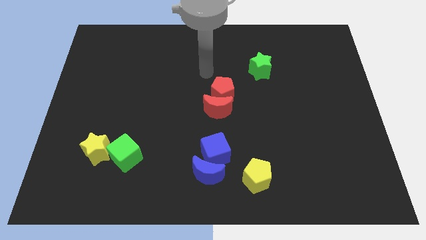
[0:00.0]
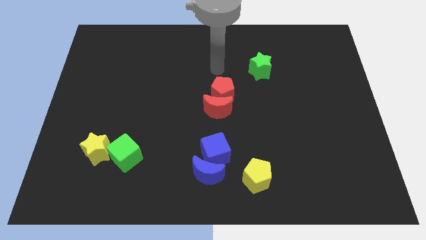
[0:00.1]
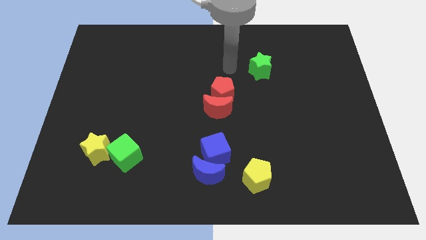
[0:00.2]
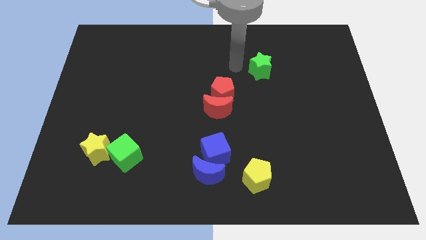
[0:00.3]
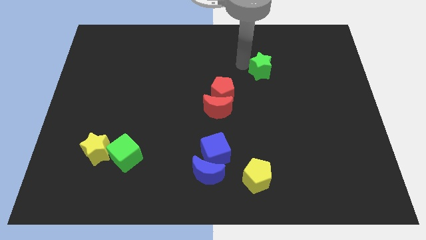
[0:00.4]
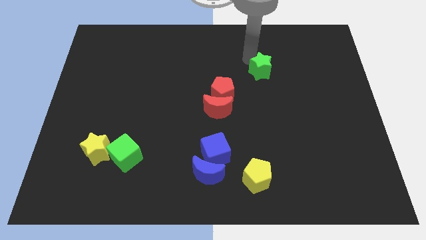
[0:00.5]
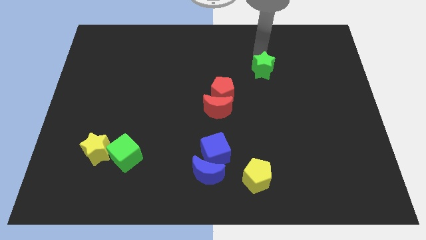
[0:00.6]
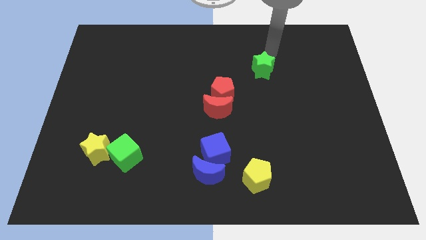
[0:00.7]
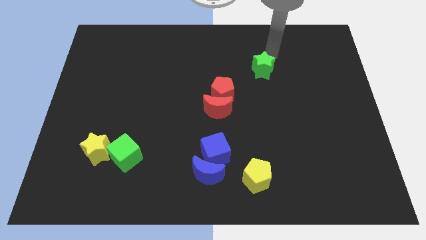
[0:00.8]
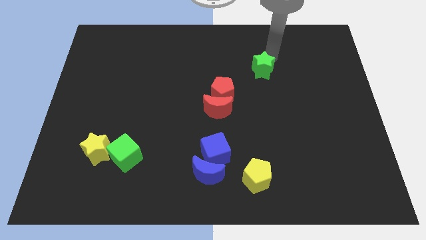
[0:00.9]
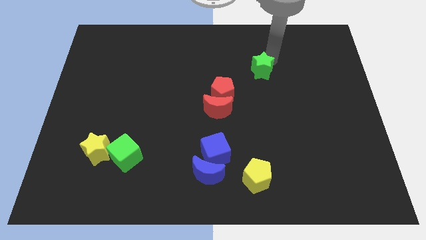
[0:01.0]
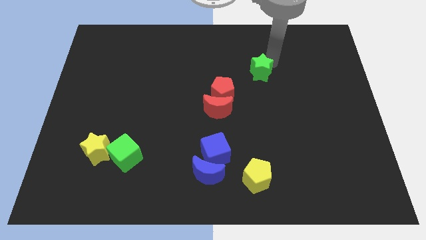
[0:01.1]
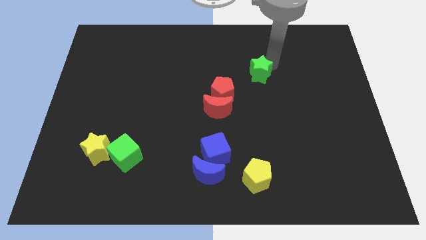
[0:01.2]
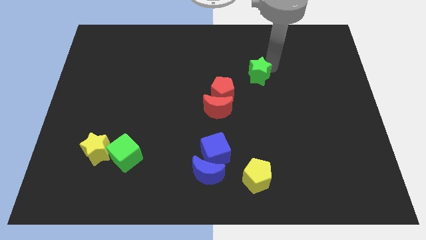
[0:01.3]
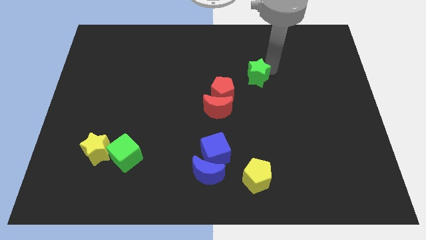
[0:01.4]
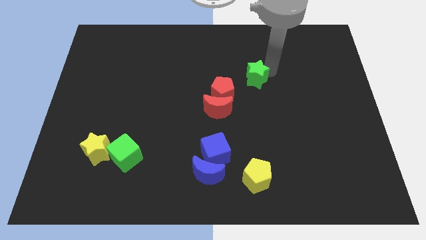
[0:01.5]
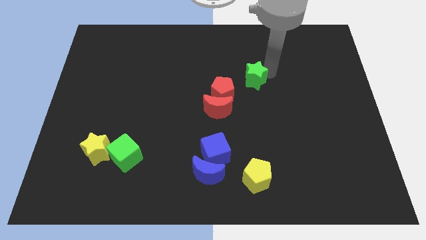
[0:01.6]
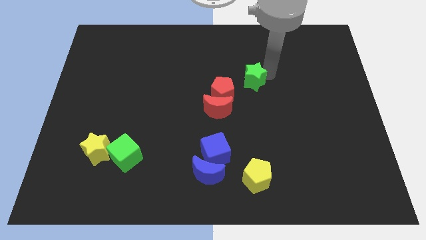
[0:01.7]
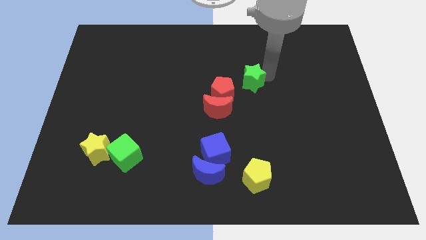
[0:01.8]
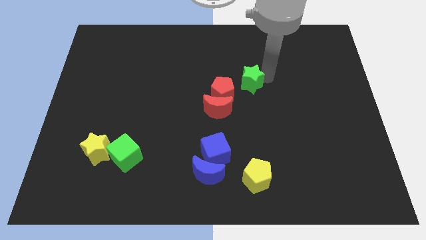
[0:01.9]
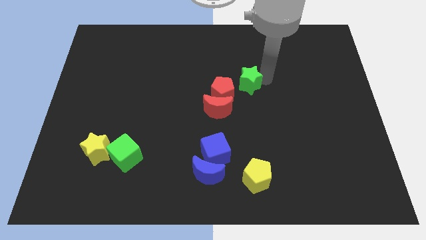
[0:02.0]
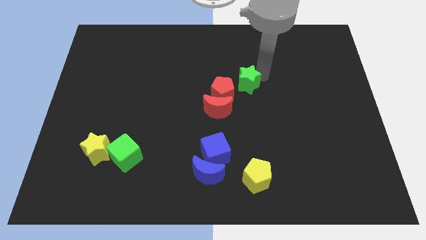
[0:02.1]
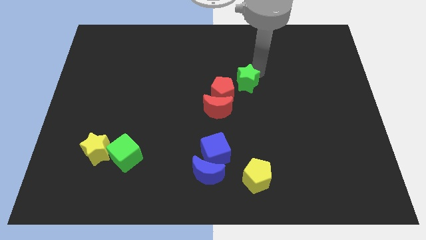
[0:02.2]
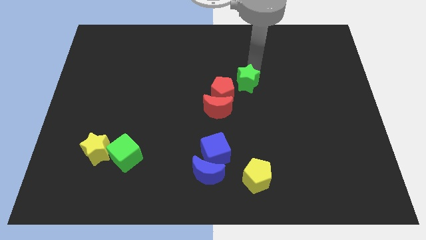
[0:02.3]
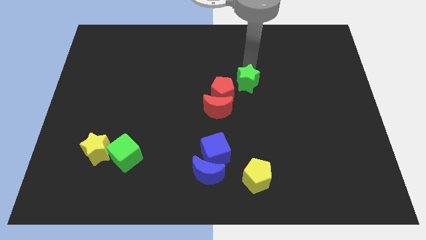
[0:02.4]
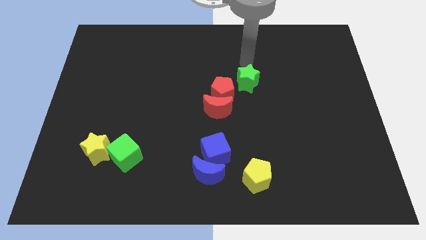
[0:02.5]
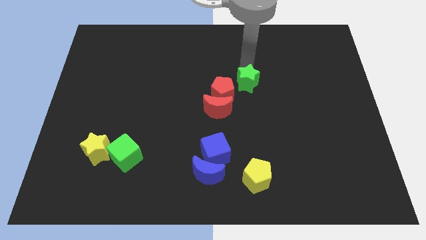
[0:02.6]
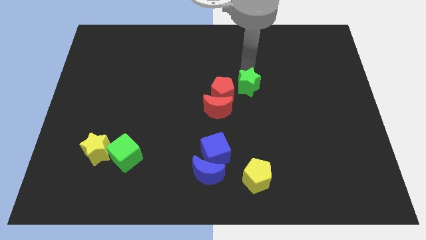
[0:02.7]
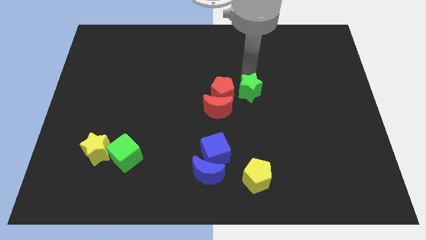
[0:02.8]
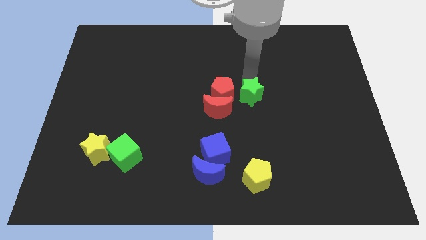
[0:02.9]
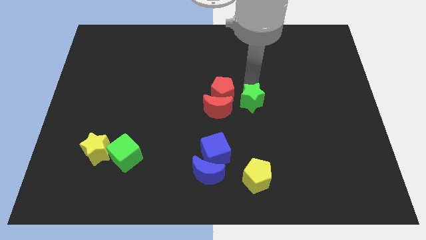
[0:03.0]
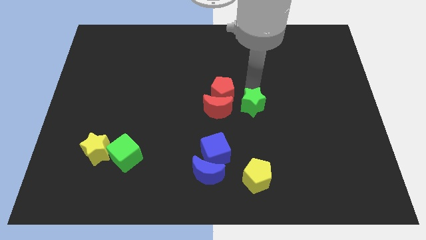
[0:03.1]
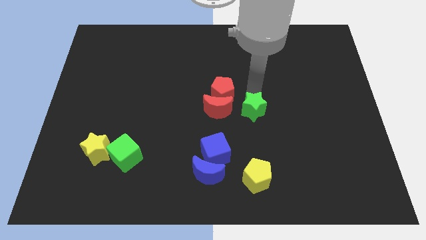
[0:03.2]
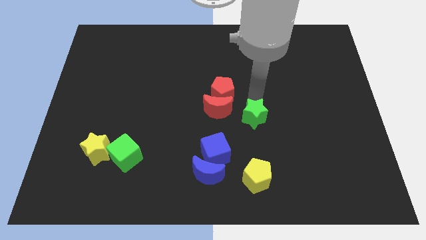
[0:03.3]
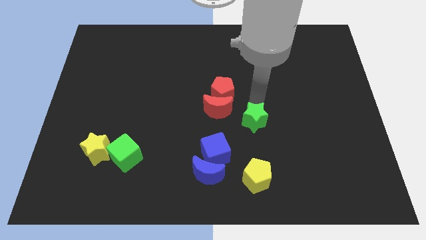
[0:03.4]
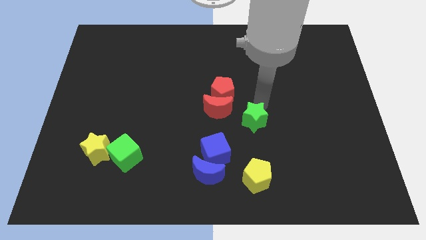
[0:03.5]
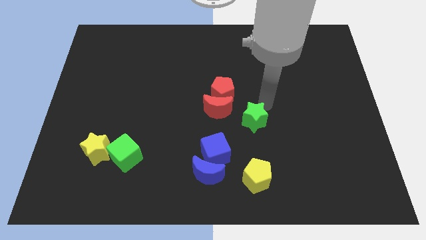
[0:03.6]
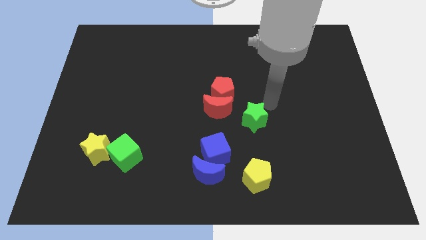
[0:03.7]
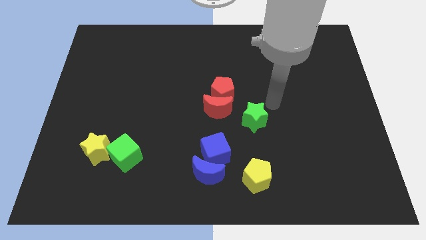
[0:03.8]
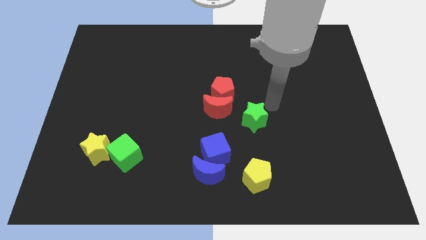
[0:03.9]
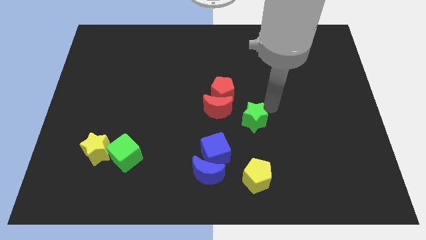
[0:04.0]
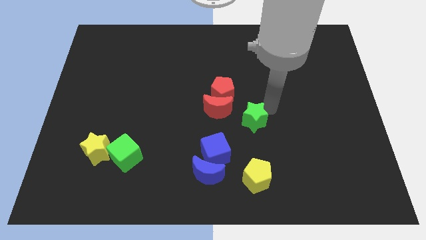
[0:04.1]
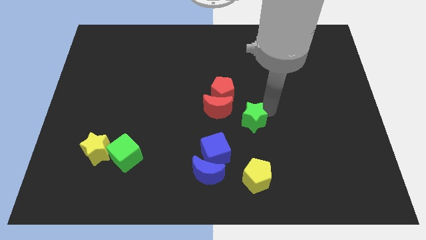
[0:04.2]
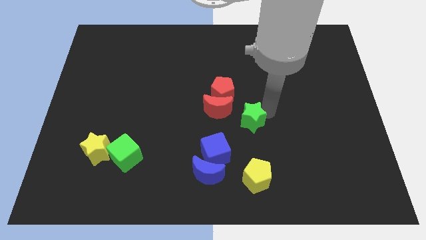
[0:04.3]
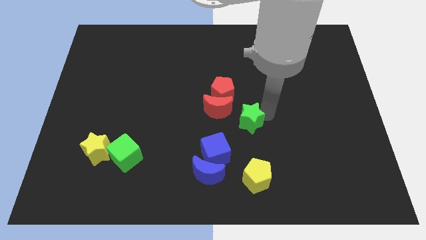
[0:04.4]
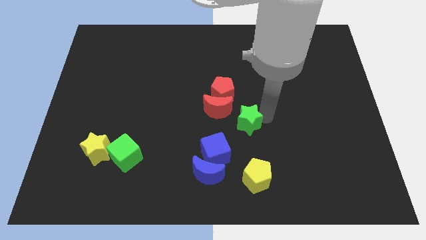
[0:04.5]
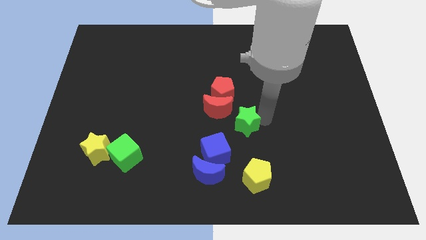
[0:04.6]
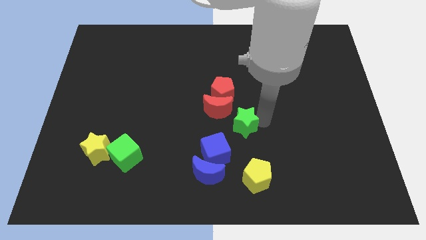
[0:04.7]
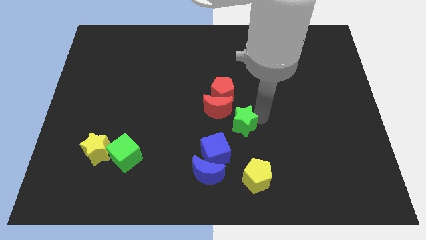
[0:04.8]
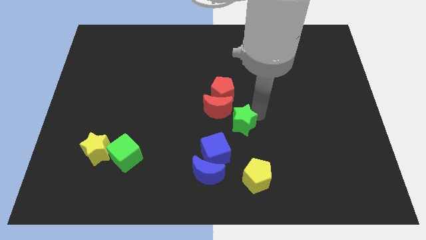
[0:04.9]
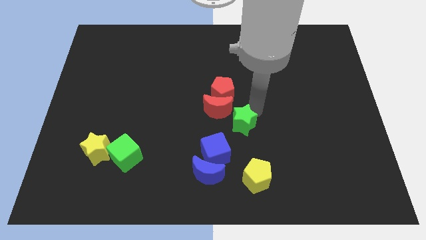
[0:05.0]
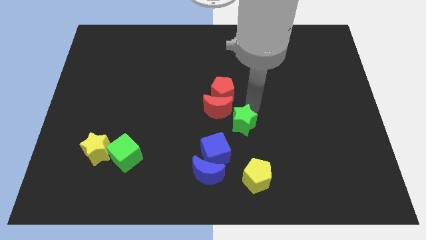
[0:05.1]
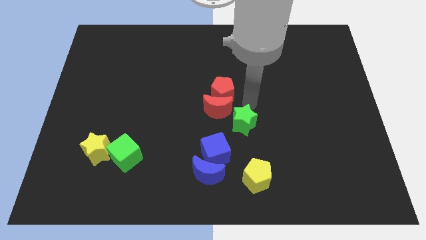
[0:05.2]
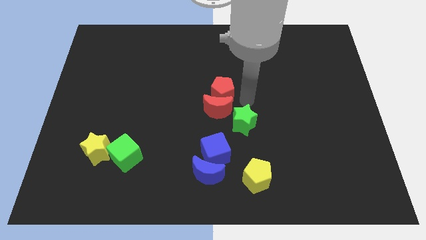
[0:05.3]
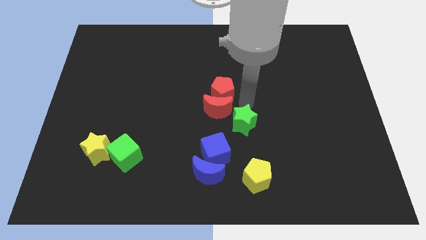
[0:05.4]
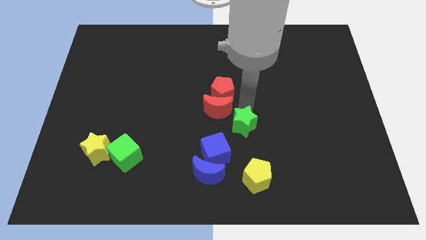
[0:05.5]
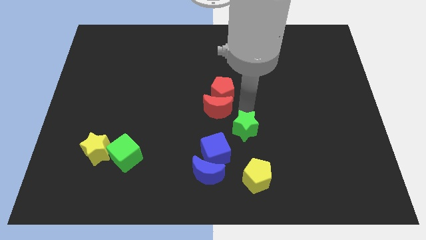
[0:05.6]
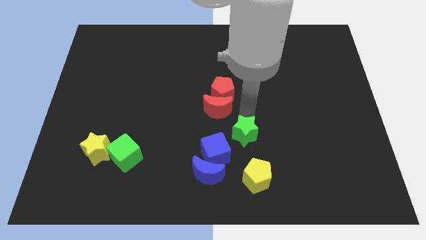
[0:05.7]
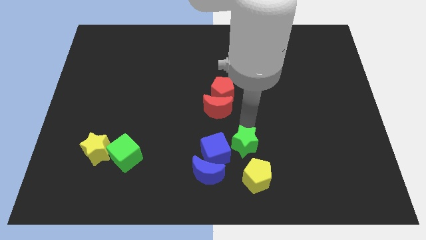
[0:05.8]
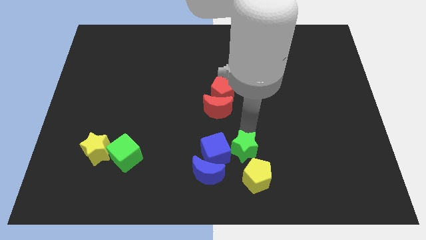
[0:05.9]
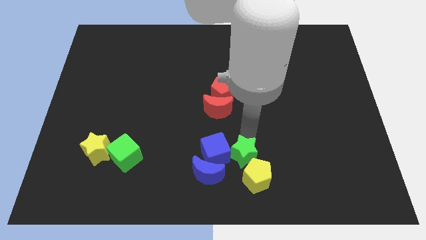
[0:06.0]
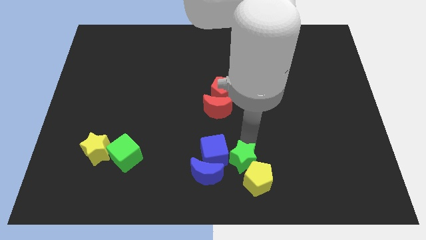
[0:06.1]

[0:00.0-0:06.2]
slide the green star to the bottom

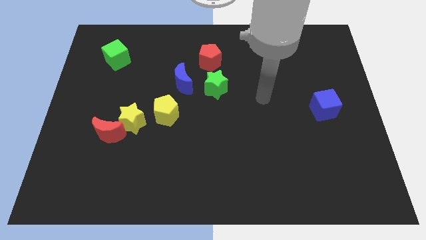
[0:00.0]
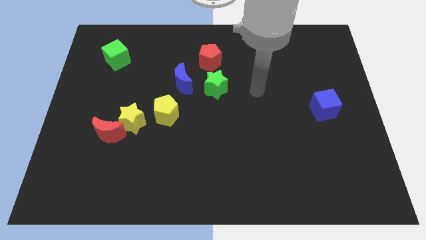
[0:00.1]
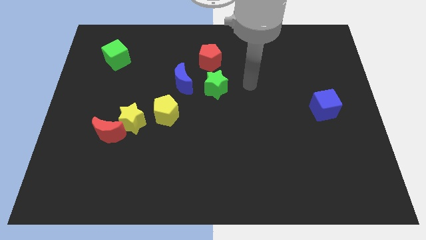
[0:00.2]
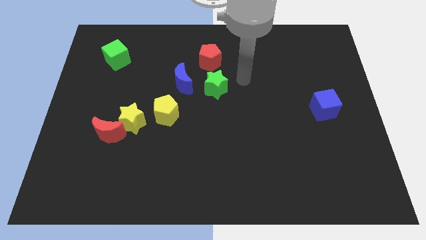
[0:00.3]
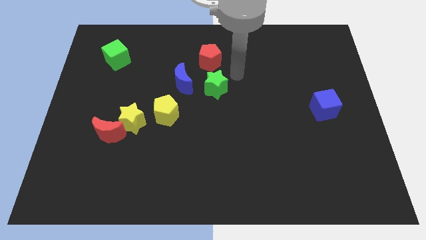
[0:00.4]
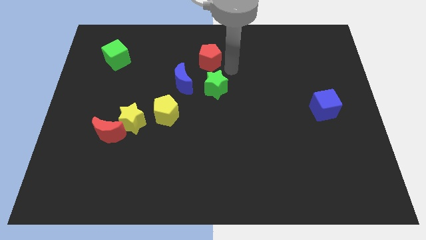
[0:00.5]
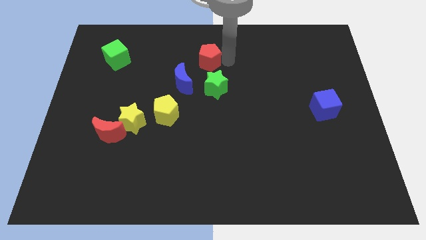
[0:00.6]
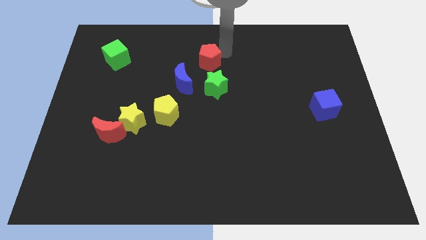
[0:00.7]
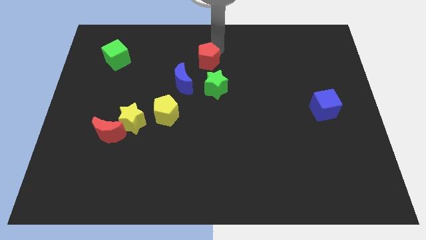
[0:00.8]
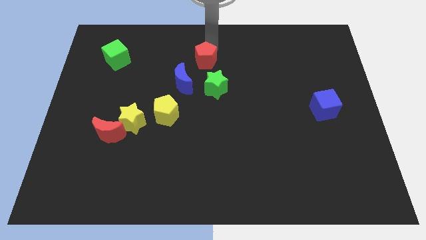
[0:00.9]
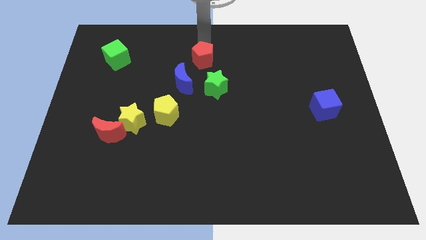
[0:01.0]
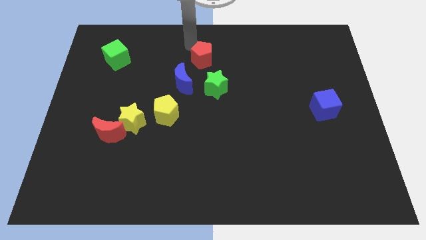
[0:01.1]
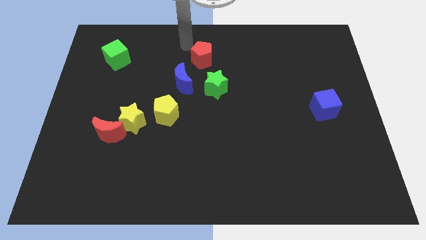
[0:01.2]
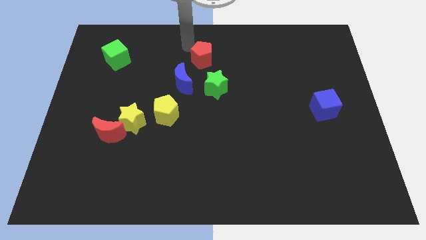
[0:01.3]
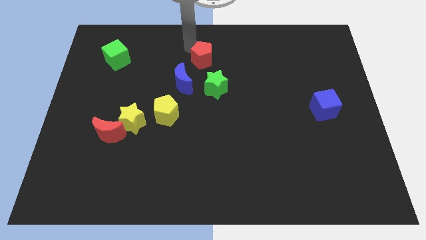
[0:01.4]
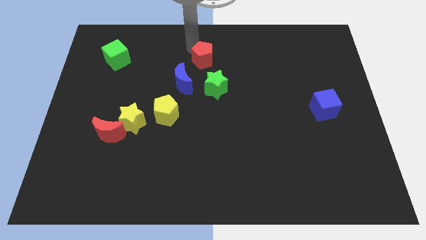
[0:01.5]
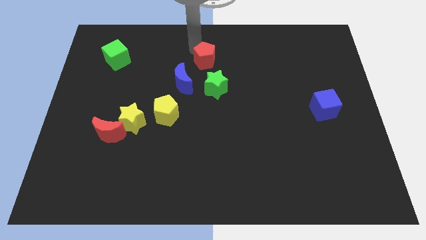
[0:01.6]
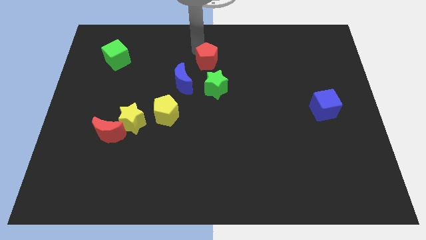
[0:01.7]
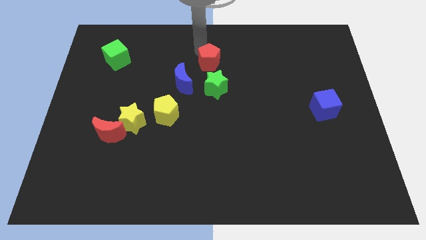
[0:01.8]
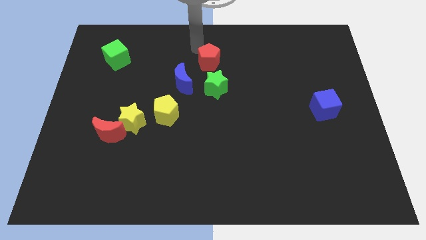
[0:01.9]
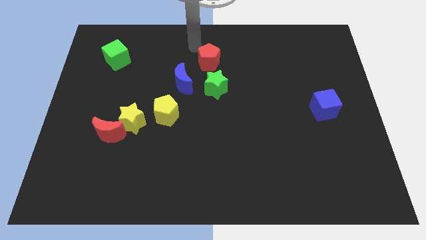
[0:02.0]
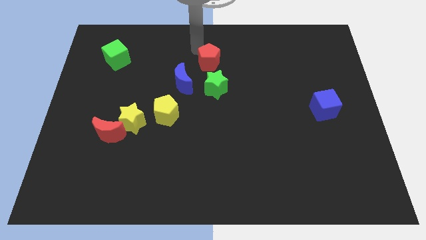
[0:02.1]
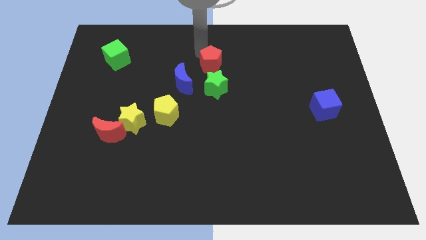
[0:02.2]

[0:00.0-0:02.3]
put the red pentagon to the center
